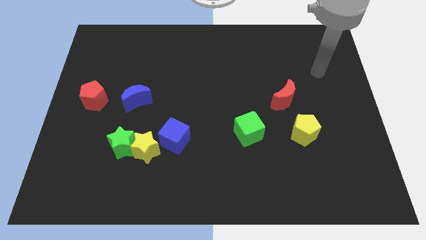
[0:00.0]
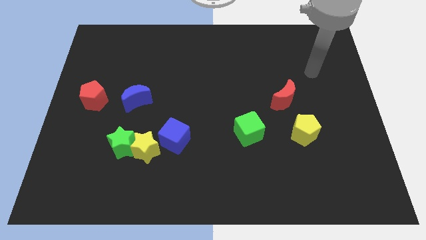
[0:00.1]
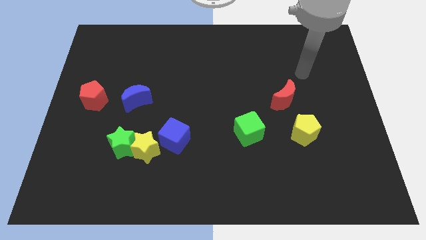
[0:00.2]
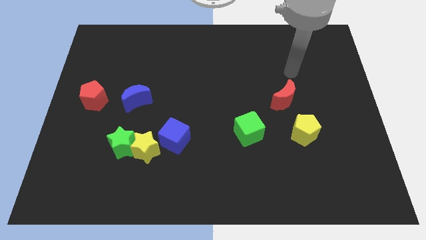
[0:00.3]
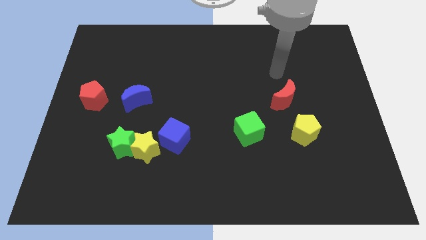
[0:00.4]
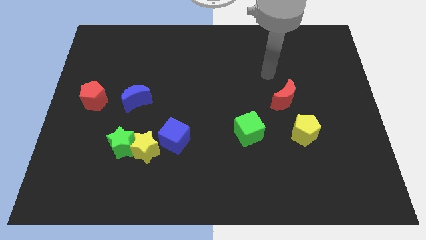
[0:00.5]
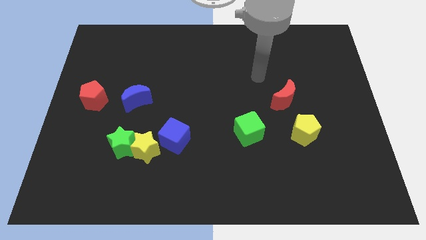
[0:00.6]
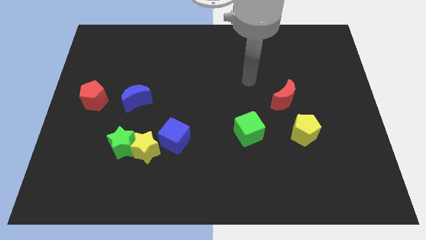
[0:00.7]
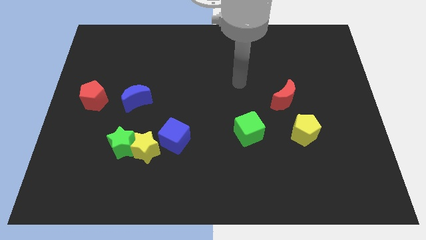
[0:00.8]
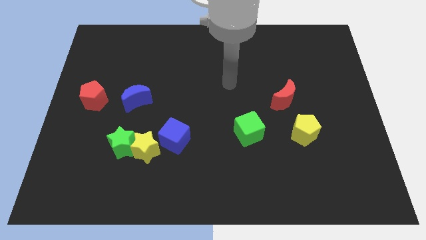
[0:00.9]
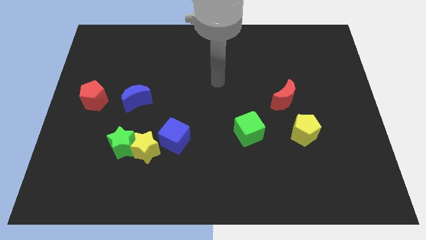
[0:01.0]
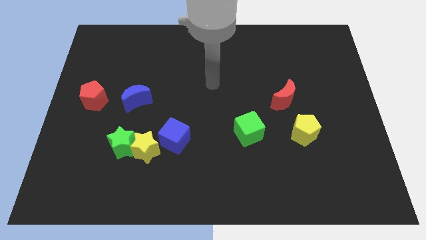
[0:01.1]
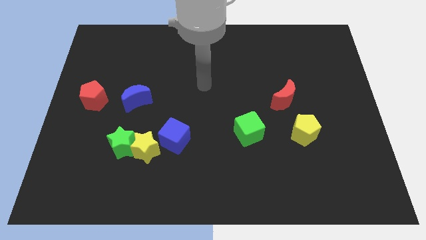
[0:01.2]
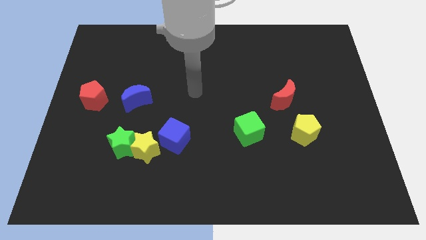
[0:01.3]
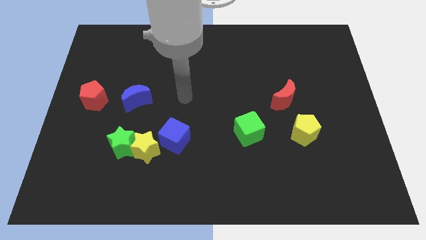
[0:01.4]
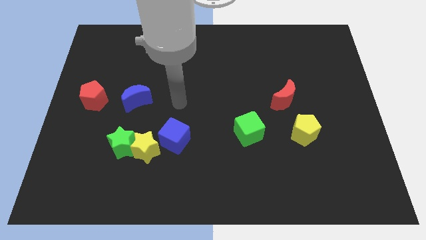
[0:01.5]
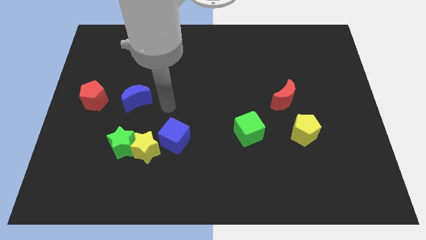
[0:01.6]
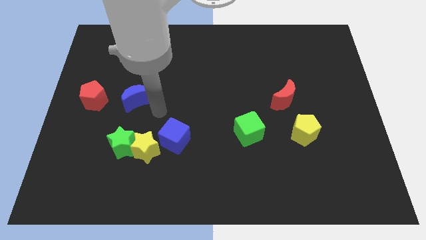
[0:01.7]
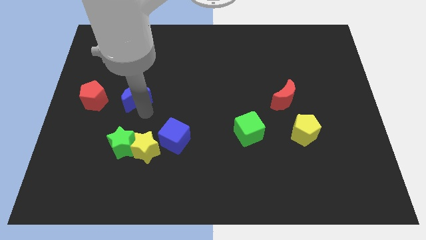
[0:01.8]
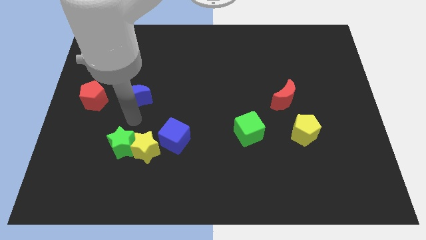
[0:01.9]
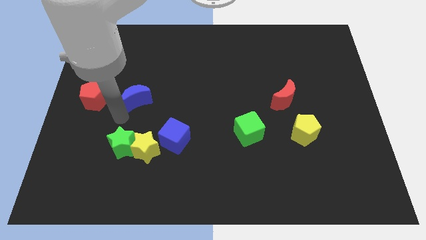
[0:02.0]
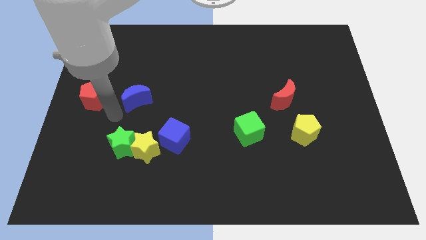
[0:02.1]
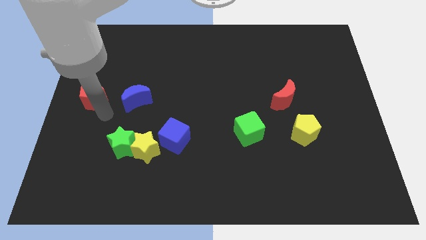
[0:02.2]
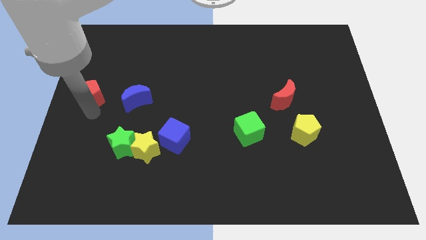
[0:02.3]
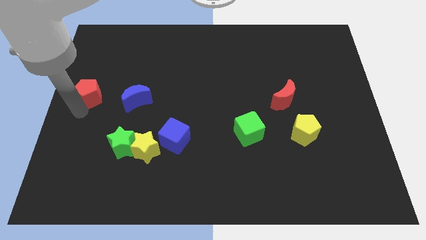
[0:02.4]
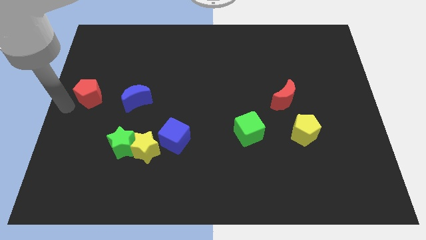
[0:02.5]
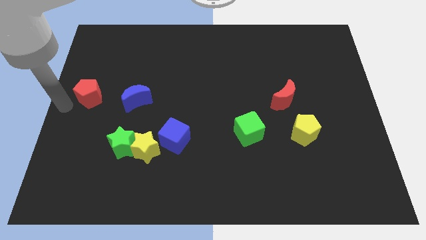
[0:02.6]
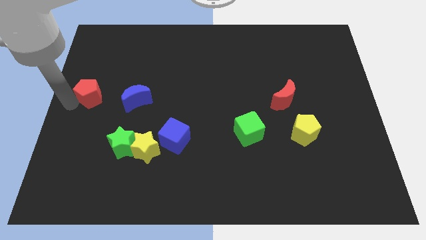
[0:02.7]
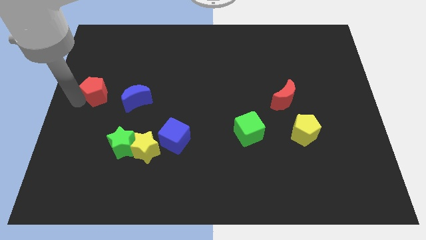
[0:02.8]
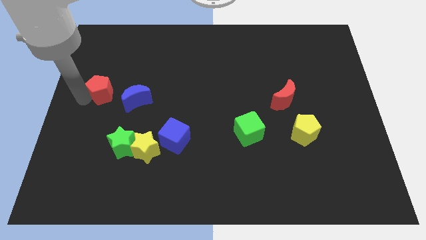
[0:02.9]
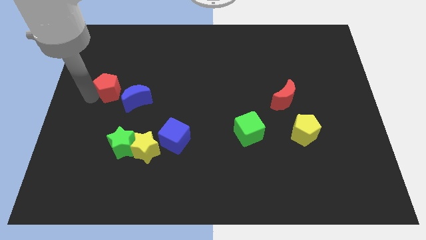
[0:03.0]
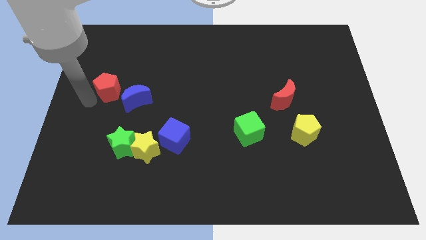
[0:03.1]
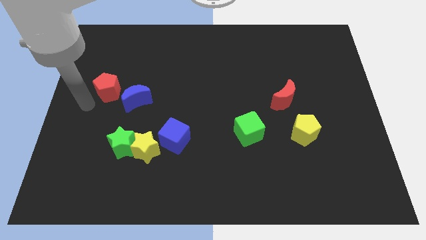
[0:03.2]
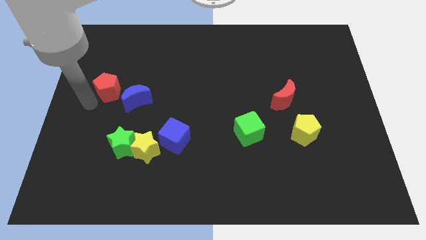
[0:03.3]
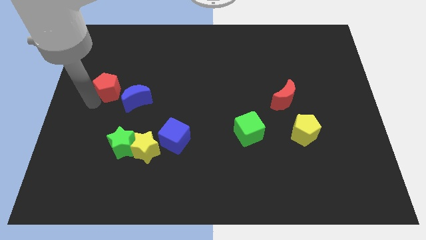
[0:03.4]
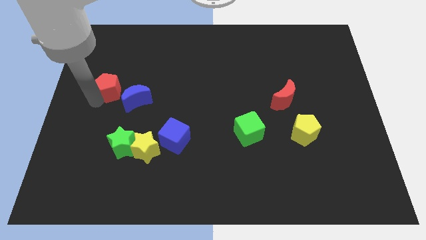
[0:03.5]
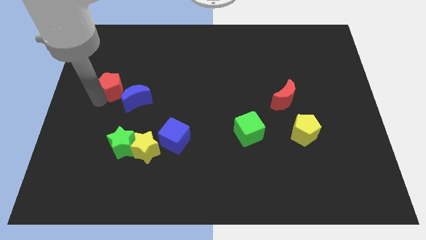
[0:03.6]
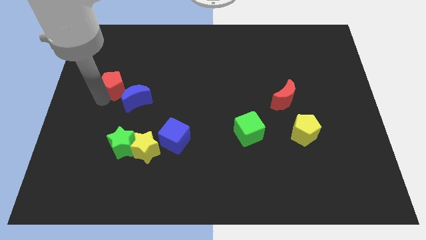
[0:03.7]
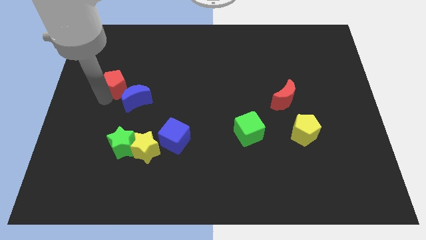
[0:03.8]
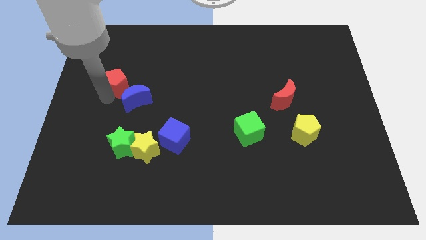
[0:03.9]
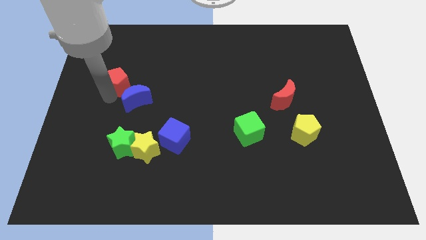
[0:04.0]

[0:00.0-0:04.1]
push the red pentagon slightly up and then right

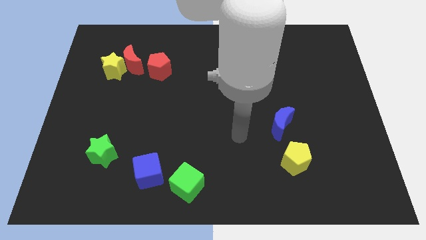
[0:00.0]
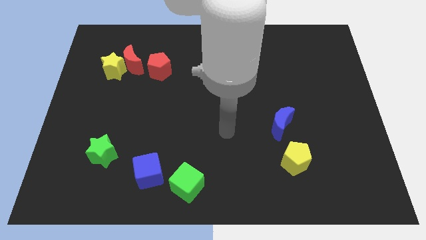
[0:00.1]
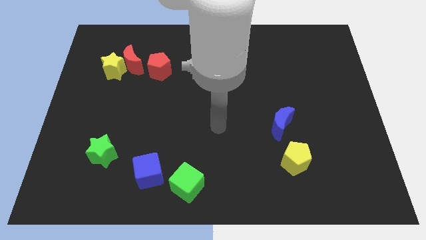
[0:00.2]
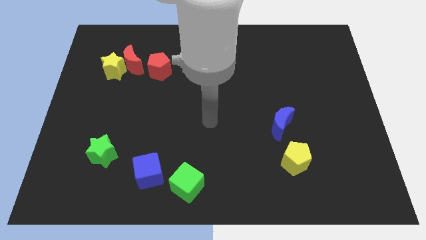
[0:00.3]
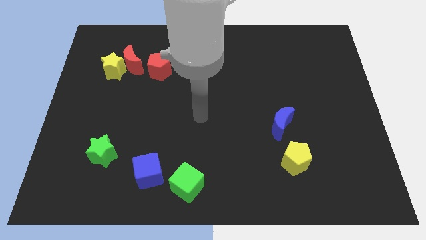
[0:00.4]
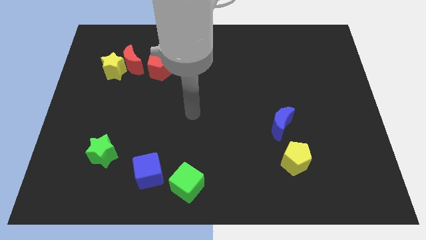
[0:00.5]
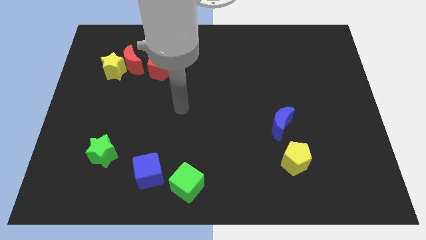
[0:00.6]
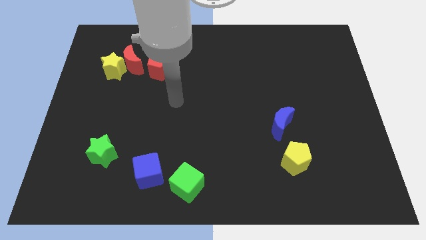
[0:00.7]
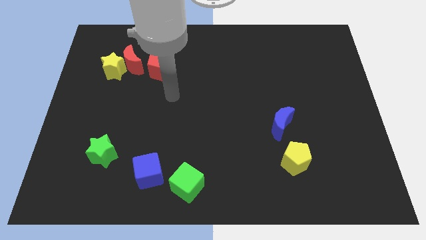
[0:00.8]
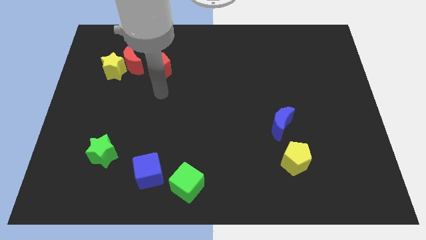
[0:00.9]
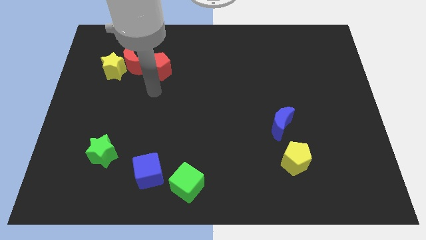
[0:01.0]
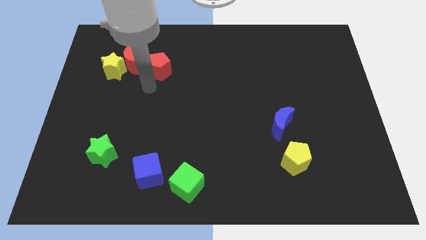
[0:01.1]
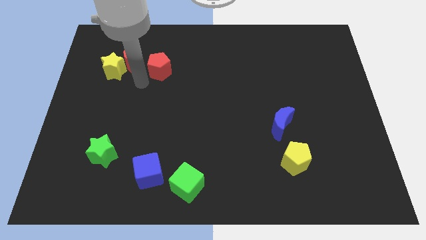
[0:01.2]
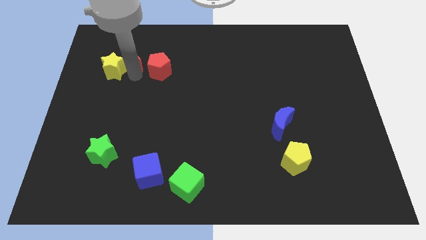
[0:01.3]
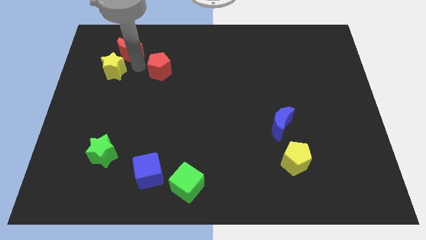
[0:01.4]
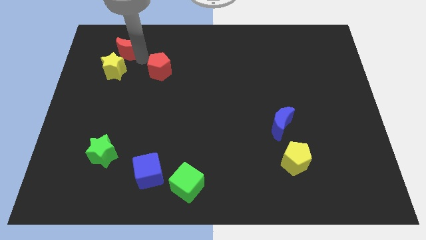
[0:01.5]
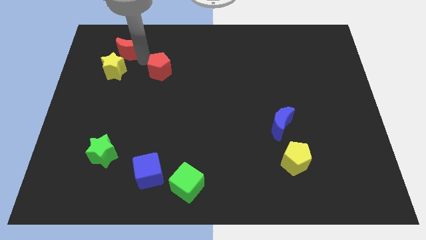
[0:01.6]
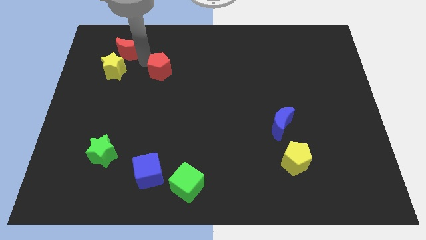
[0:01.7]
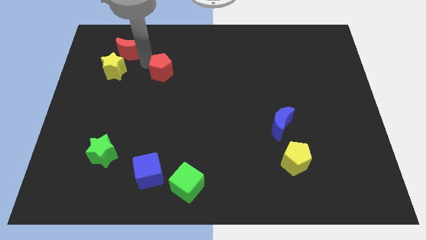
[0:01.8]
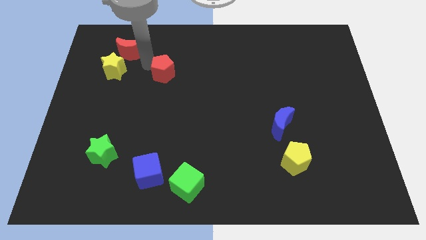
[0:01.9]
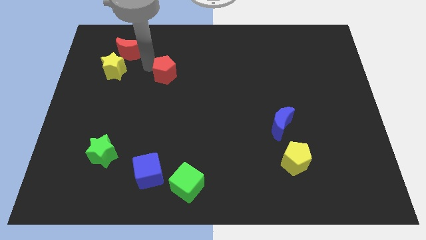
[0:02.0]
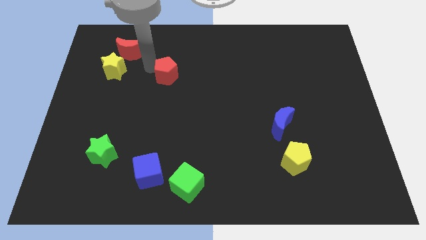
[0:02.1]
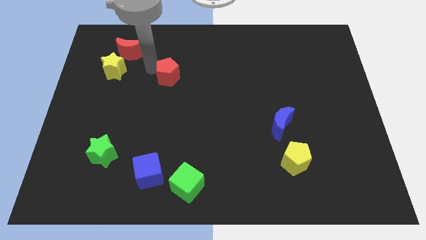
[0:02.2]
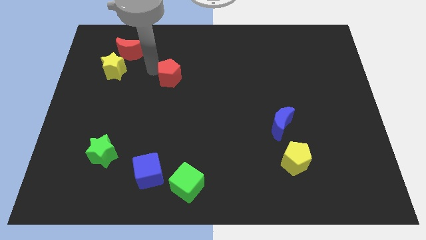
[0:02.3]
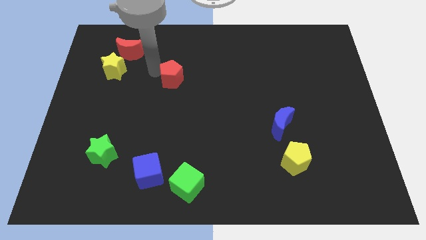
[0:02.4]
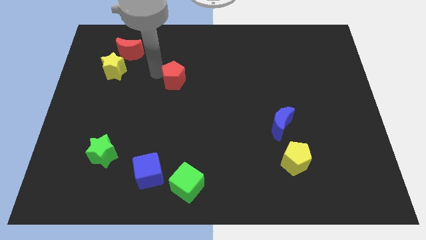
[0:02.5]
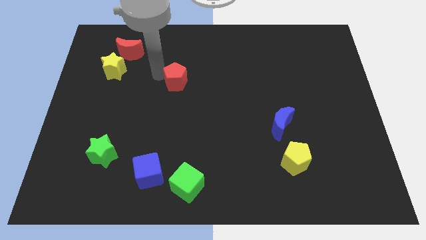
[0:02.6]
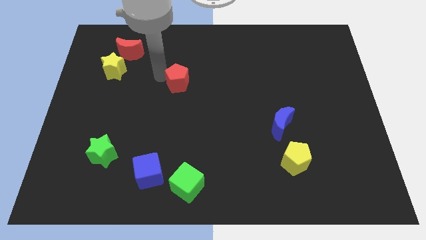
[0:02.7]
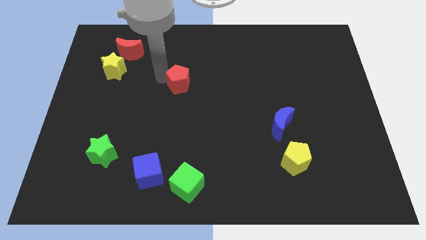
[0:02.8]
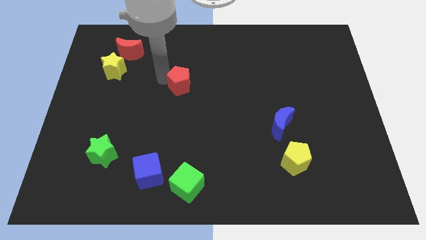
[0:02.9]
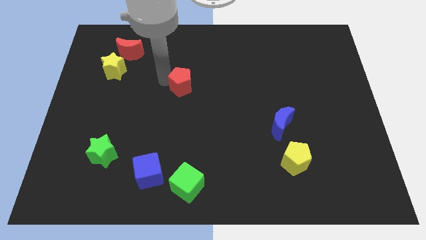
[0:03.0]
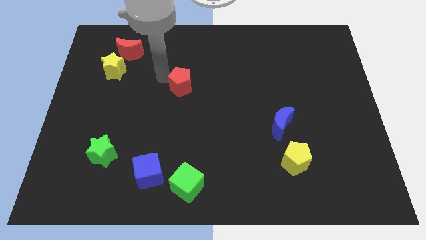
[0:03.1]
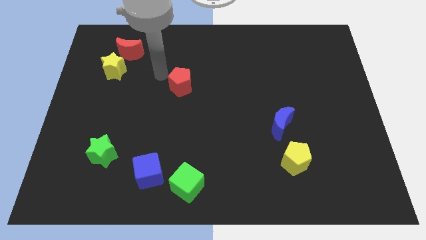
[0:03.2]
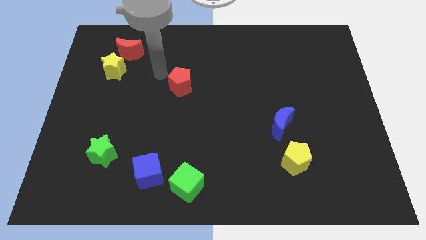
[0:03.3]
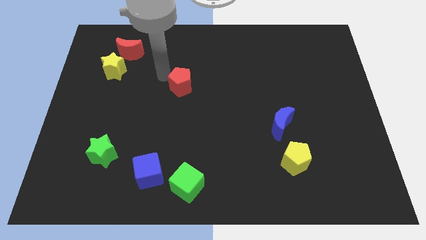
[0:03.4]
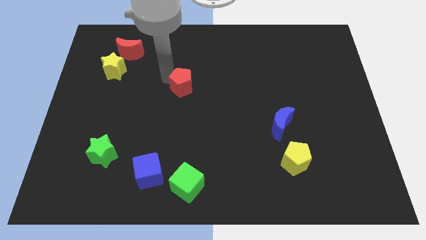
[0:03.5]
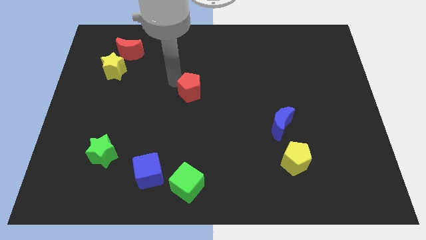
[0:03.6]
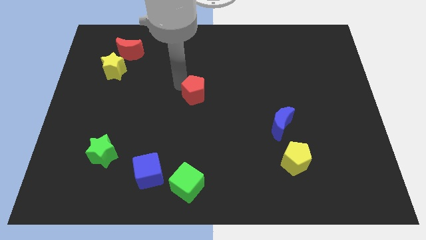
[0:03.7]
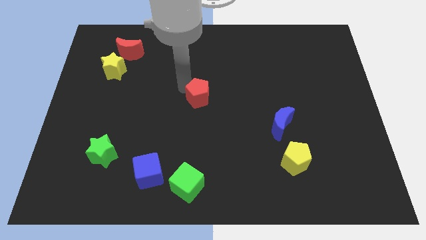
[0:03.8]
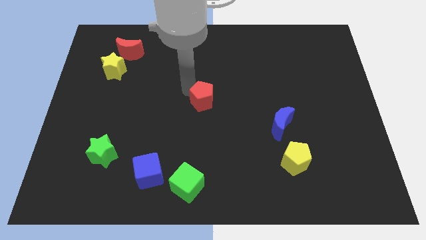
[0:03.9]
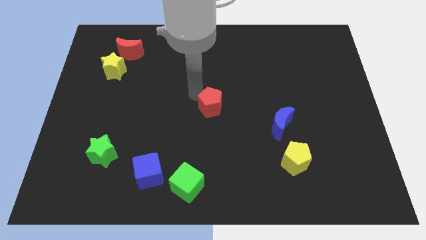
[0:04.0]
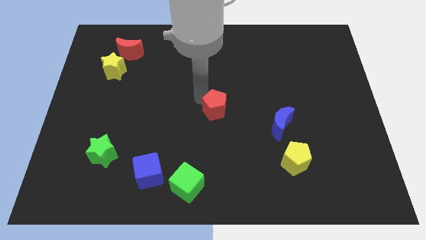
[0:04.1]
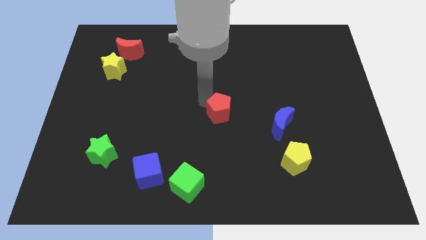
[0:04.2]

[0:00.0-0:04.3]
slide the red pentagon down and to the right diagonally
